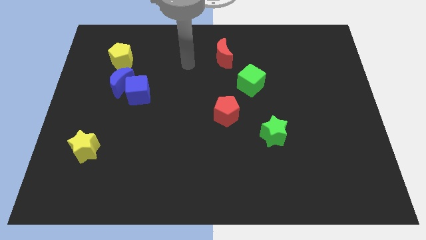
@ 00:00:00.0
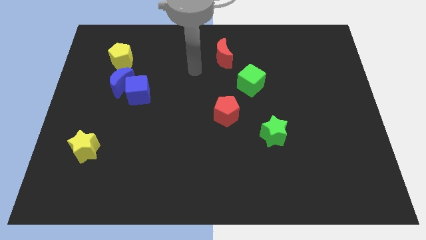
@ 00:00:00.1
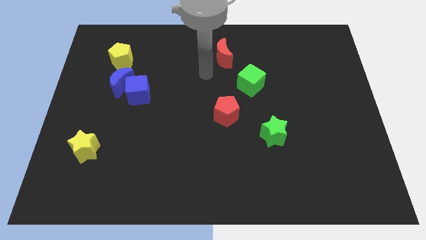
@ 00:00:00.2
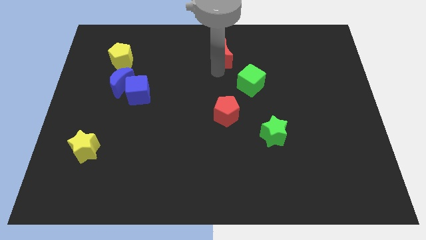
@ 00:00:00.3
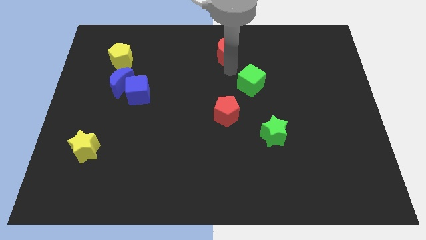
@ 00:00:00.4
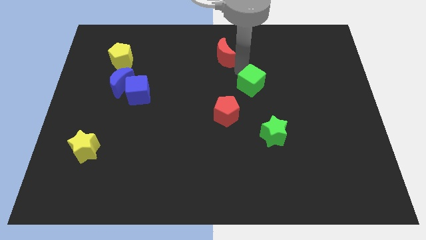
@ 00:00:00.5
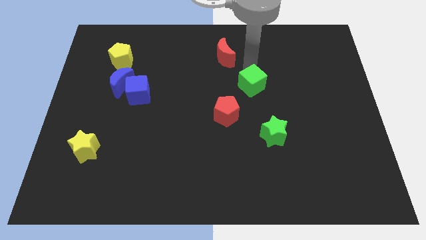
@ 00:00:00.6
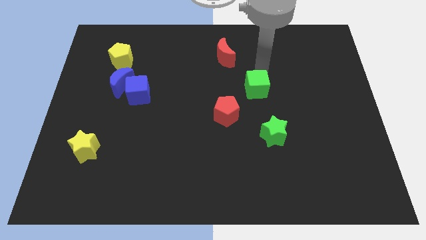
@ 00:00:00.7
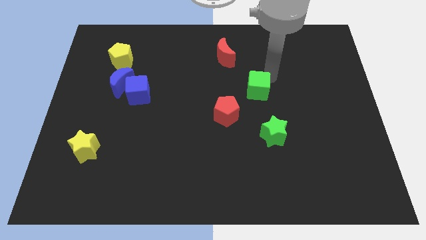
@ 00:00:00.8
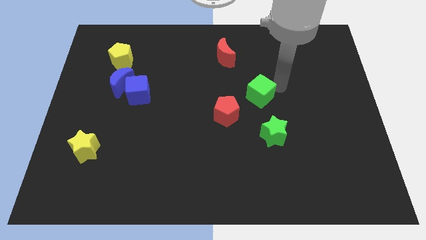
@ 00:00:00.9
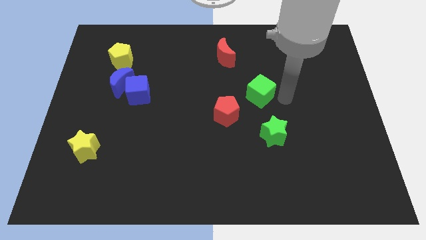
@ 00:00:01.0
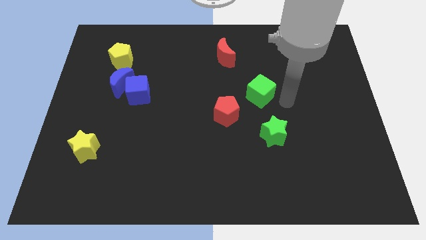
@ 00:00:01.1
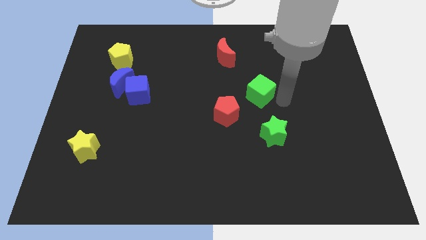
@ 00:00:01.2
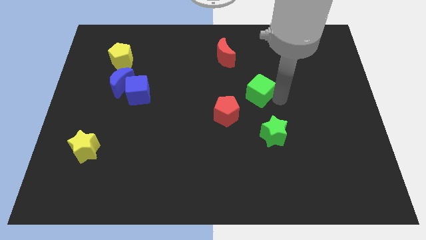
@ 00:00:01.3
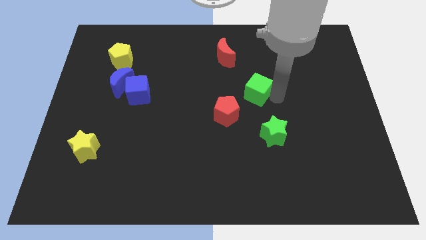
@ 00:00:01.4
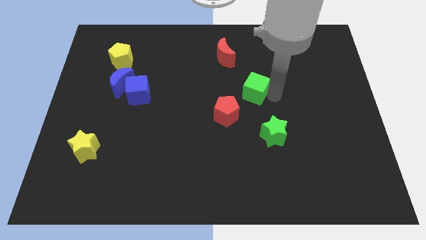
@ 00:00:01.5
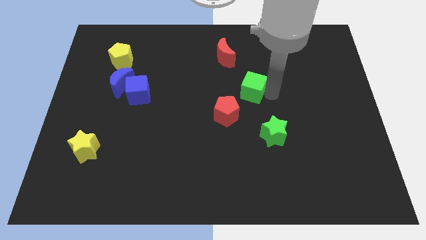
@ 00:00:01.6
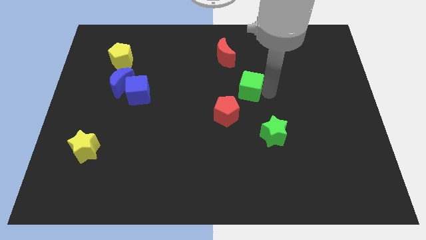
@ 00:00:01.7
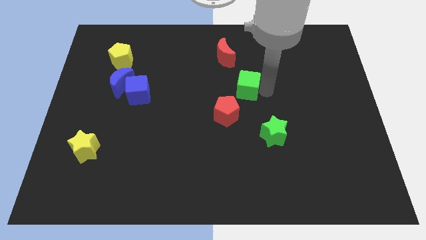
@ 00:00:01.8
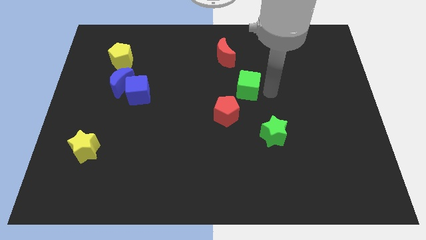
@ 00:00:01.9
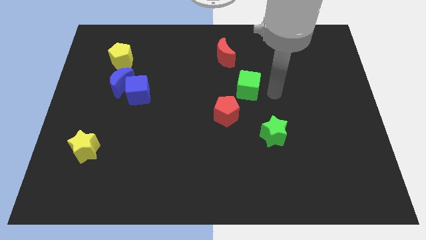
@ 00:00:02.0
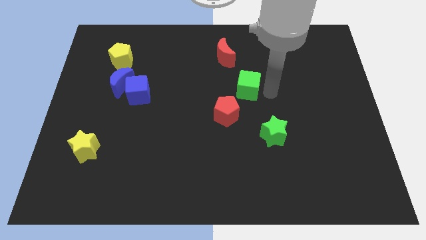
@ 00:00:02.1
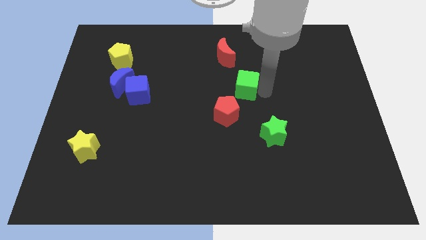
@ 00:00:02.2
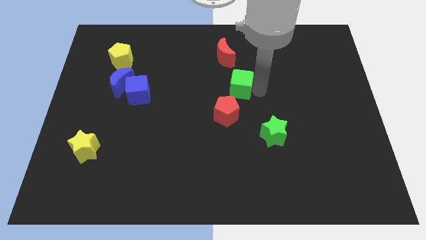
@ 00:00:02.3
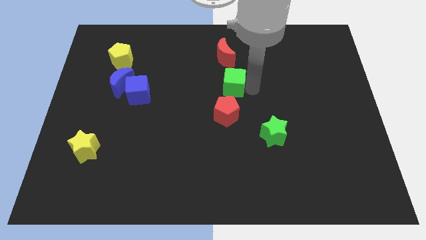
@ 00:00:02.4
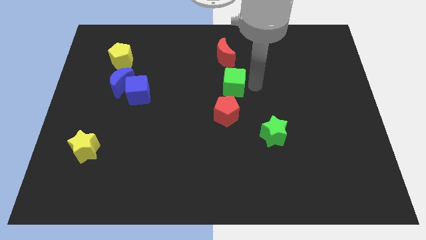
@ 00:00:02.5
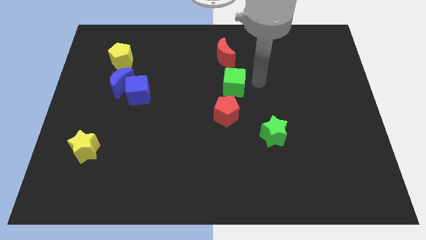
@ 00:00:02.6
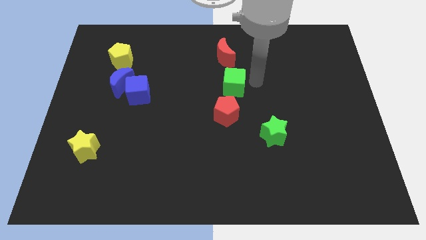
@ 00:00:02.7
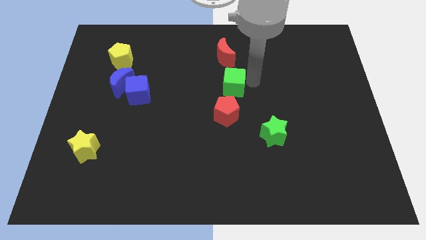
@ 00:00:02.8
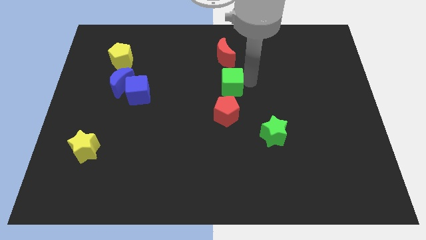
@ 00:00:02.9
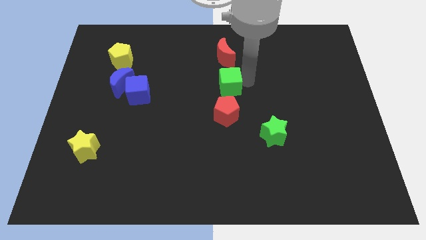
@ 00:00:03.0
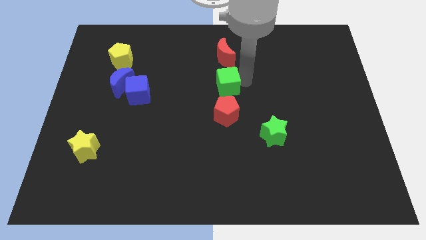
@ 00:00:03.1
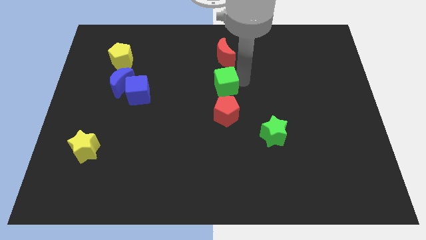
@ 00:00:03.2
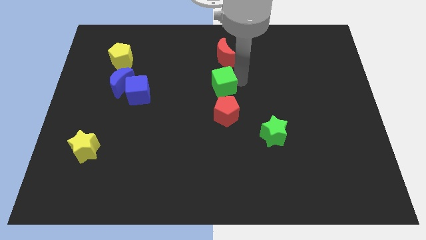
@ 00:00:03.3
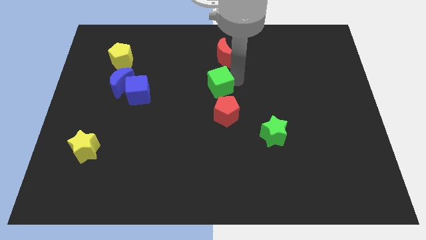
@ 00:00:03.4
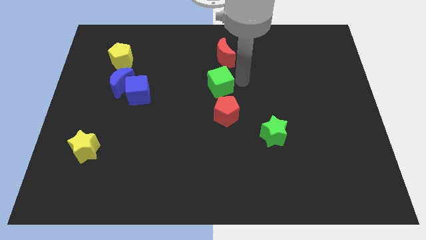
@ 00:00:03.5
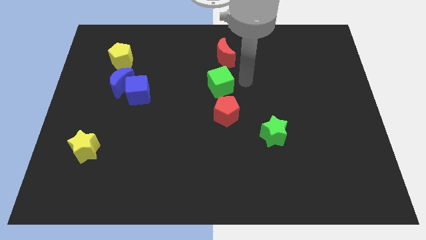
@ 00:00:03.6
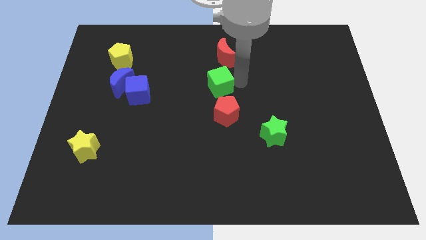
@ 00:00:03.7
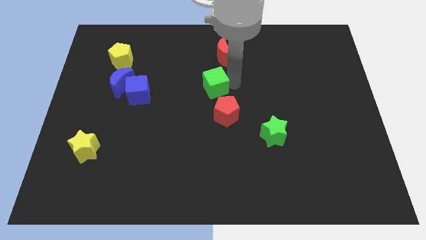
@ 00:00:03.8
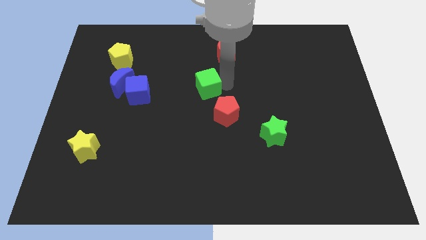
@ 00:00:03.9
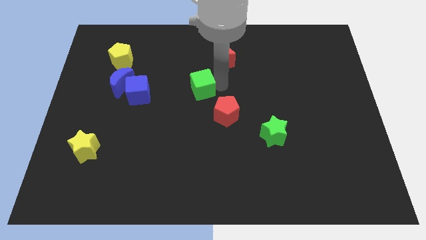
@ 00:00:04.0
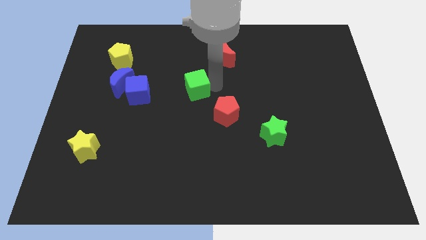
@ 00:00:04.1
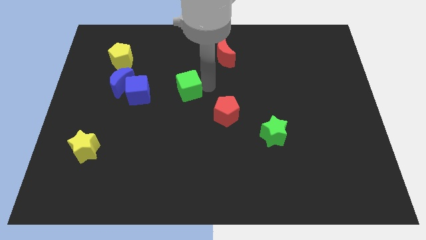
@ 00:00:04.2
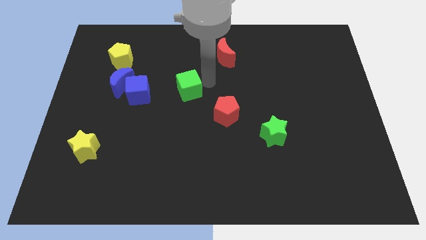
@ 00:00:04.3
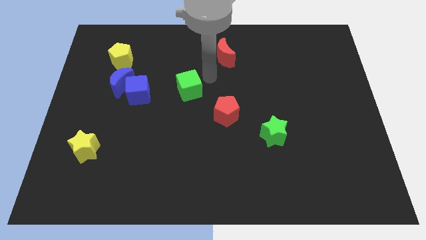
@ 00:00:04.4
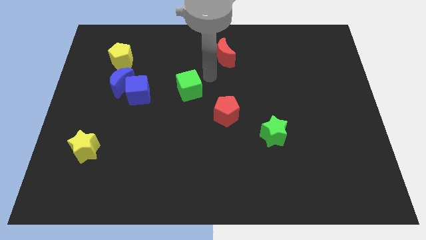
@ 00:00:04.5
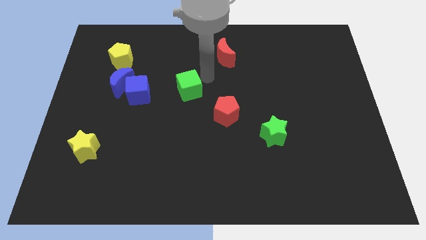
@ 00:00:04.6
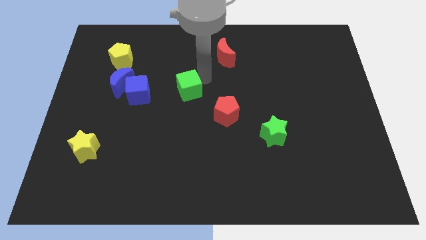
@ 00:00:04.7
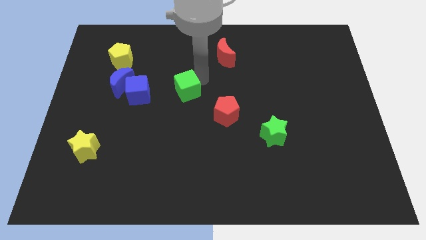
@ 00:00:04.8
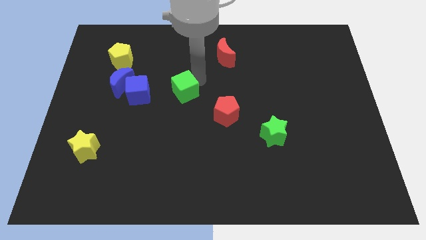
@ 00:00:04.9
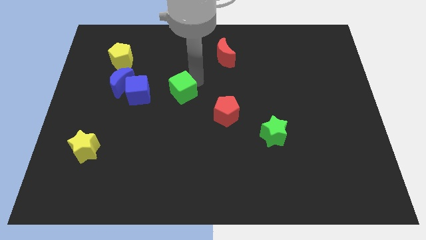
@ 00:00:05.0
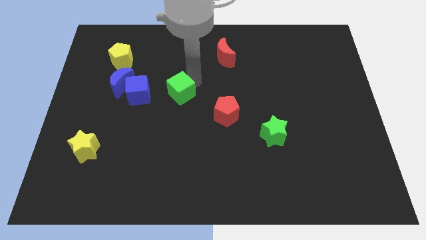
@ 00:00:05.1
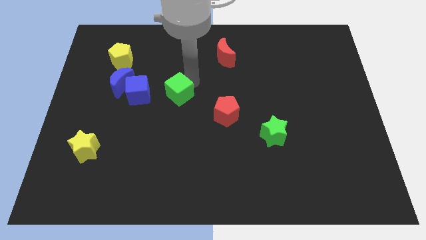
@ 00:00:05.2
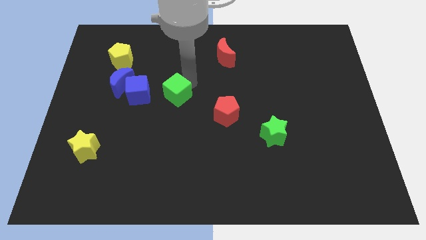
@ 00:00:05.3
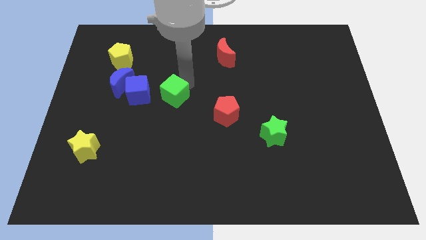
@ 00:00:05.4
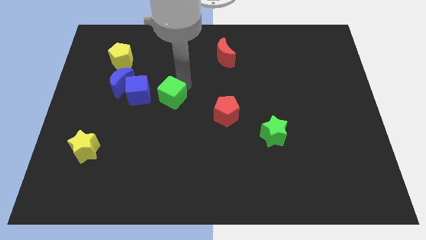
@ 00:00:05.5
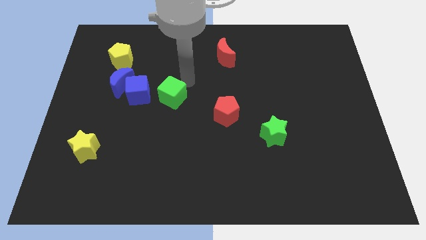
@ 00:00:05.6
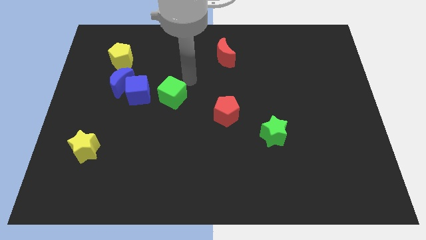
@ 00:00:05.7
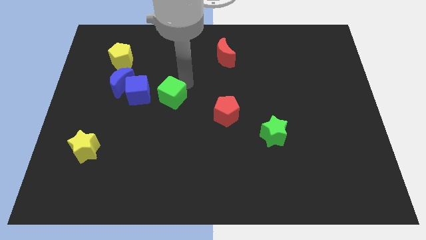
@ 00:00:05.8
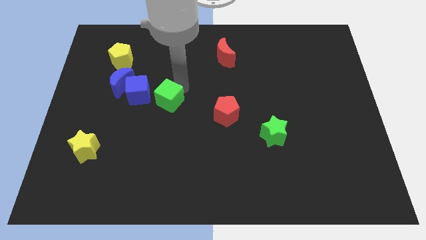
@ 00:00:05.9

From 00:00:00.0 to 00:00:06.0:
push the green cube to the bottom right of the blue cube
